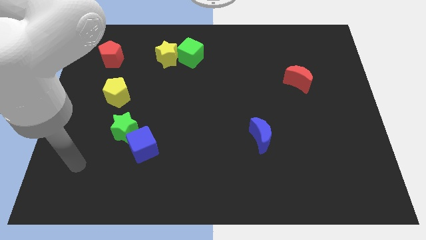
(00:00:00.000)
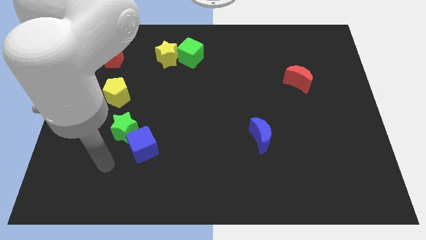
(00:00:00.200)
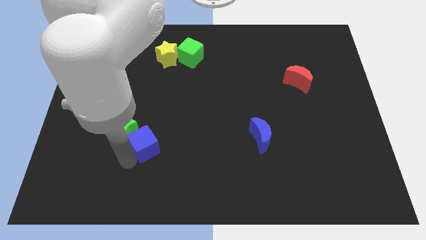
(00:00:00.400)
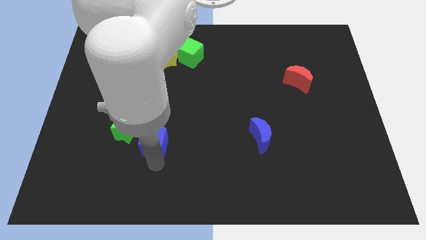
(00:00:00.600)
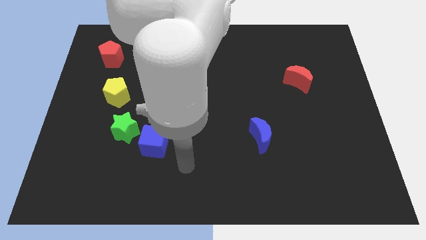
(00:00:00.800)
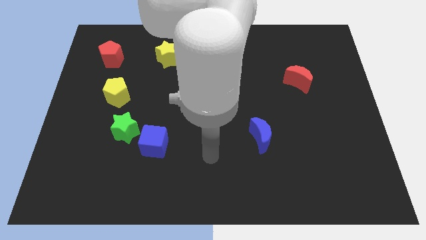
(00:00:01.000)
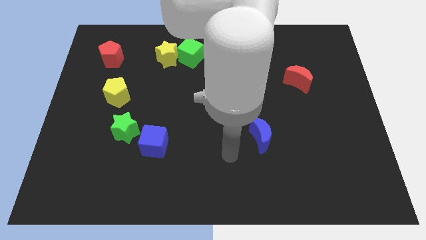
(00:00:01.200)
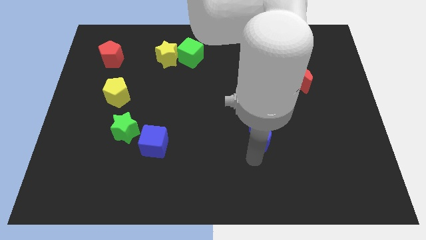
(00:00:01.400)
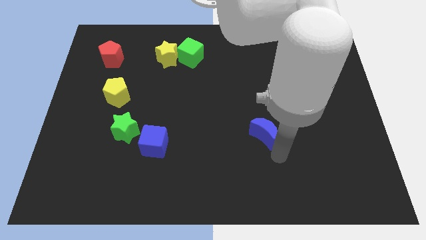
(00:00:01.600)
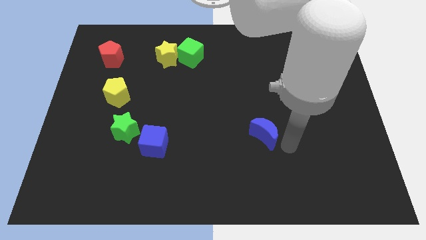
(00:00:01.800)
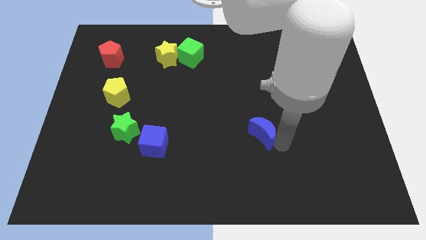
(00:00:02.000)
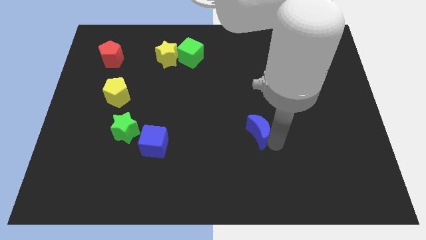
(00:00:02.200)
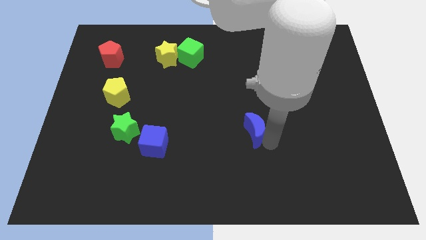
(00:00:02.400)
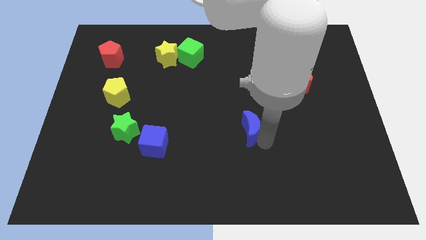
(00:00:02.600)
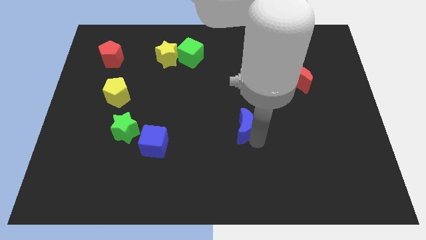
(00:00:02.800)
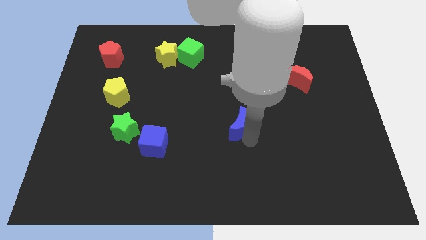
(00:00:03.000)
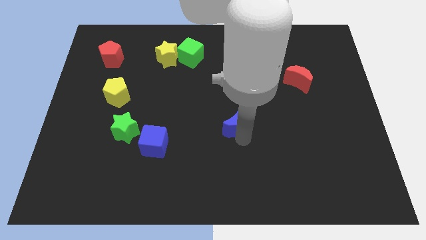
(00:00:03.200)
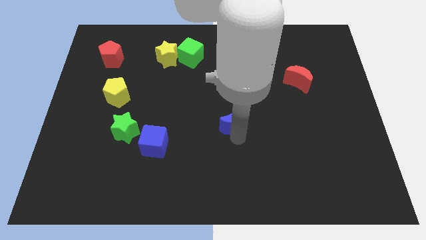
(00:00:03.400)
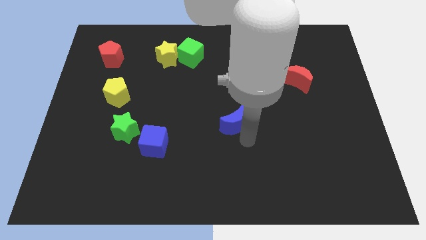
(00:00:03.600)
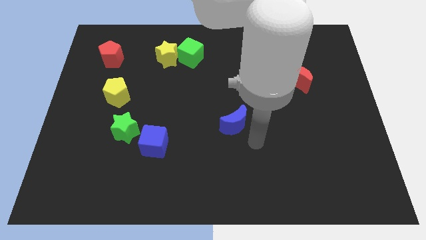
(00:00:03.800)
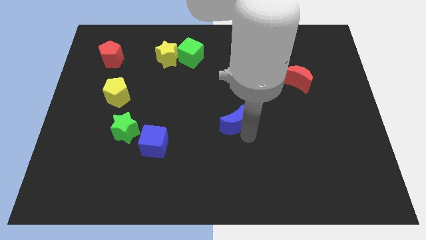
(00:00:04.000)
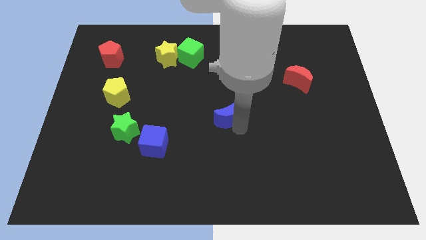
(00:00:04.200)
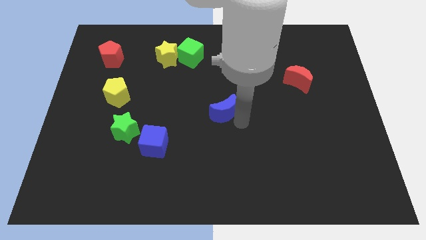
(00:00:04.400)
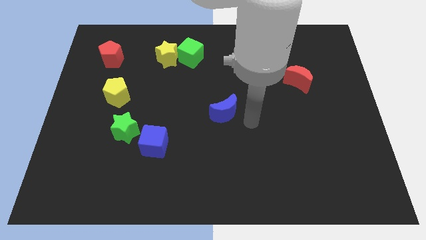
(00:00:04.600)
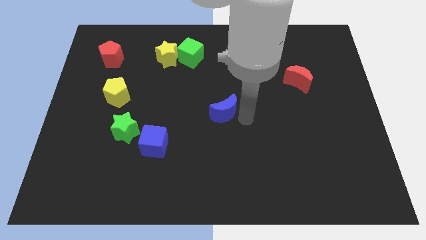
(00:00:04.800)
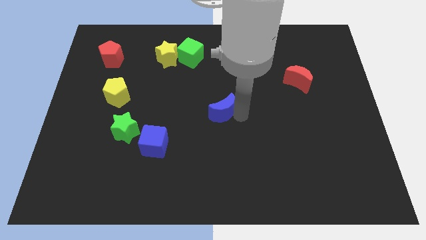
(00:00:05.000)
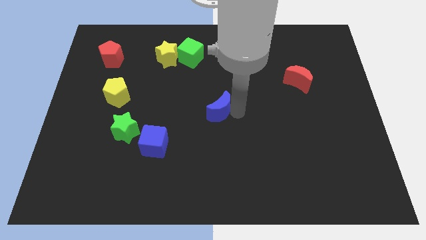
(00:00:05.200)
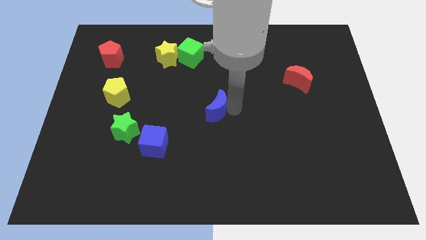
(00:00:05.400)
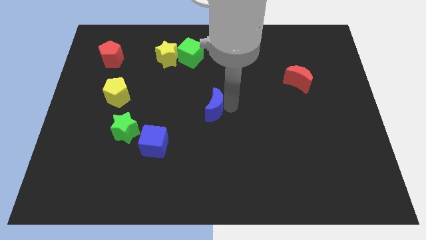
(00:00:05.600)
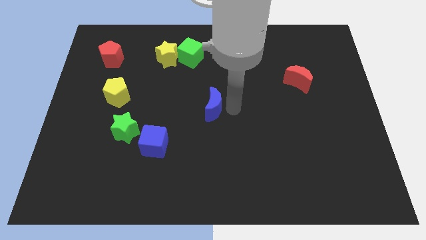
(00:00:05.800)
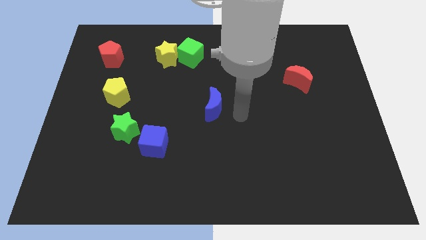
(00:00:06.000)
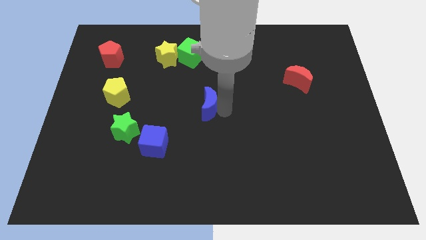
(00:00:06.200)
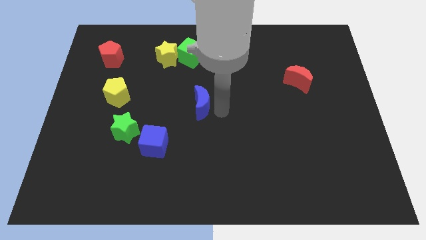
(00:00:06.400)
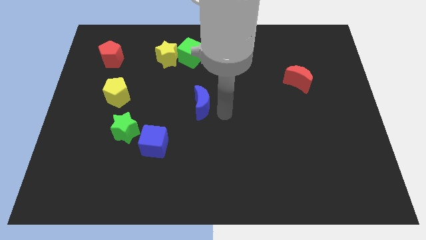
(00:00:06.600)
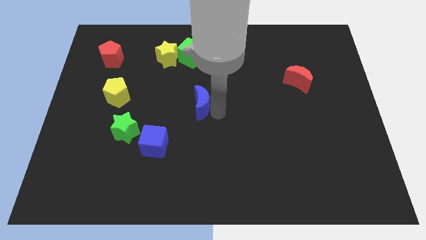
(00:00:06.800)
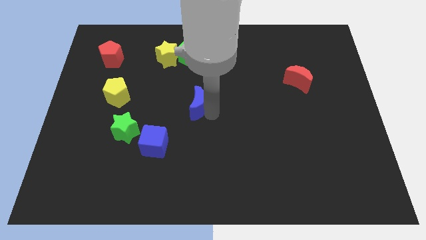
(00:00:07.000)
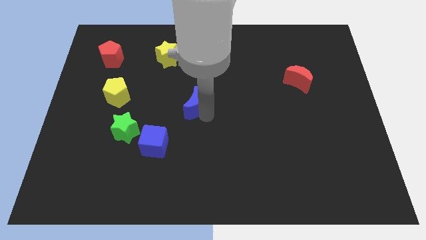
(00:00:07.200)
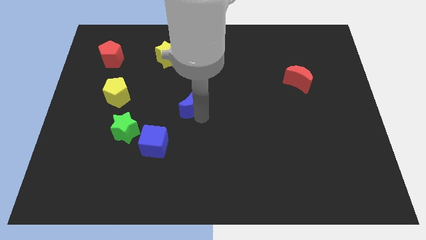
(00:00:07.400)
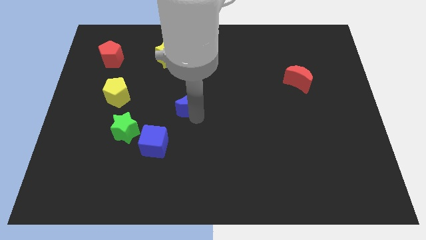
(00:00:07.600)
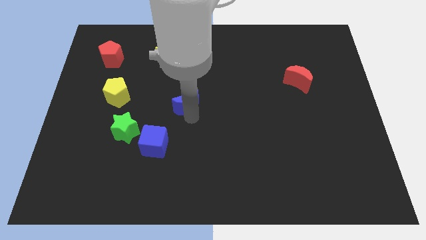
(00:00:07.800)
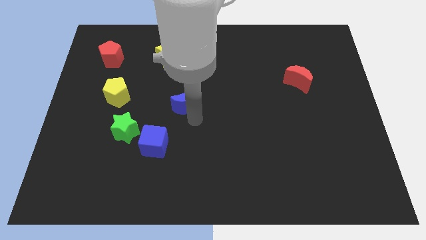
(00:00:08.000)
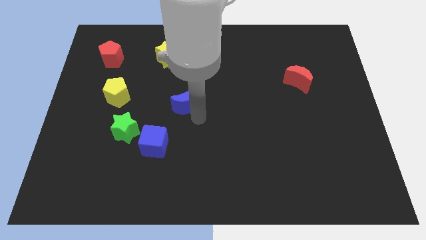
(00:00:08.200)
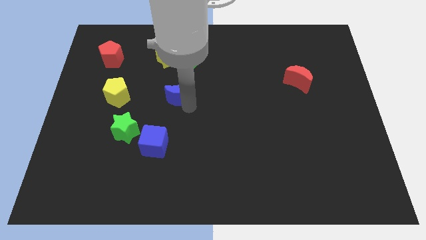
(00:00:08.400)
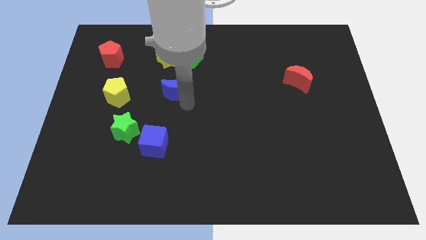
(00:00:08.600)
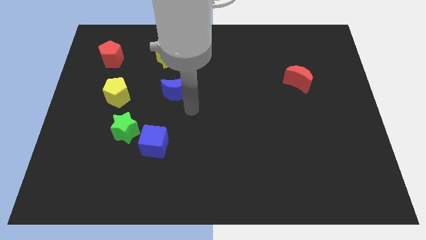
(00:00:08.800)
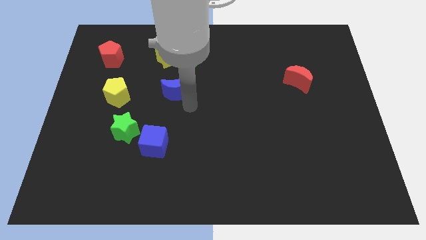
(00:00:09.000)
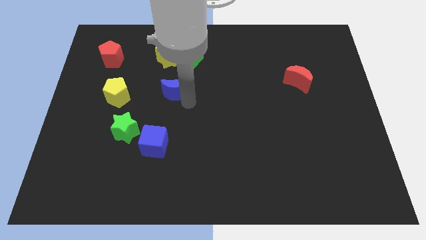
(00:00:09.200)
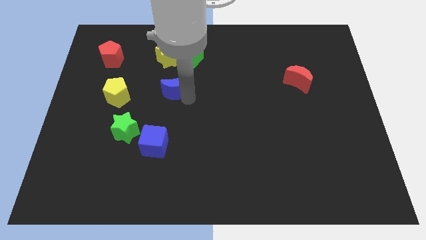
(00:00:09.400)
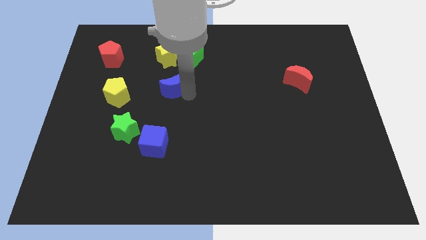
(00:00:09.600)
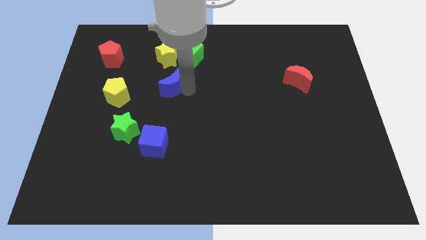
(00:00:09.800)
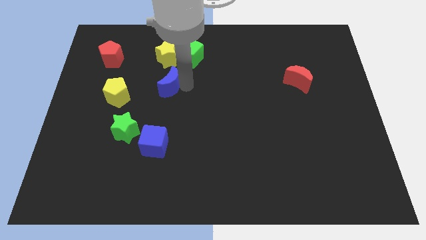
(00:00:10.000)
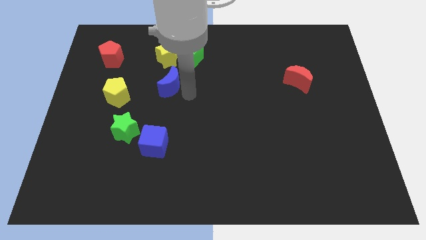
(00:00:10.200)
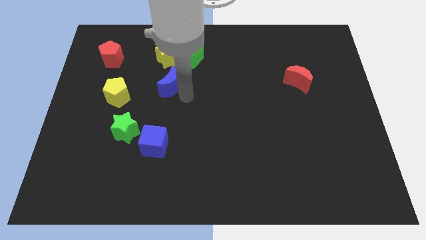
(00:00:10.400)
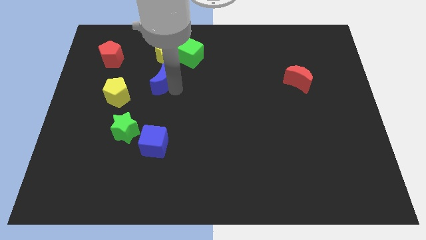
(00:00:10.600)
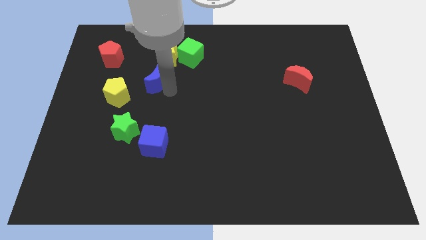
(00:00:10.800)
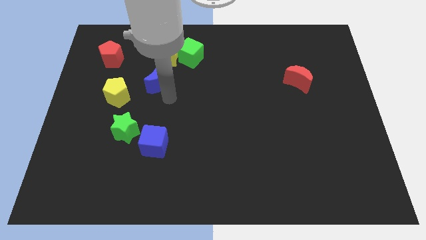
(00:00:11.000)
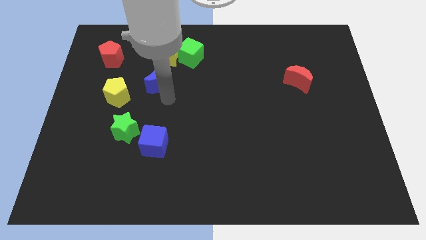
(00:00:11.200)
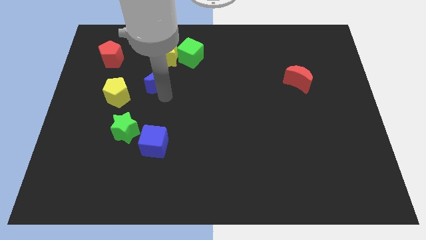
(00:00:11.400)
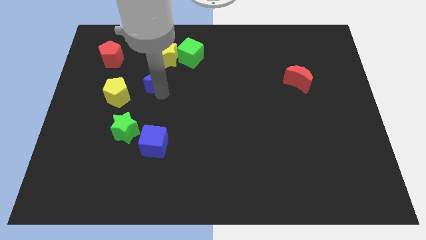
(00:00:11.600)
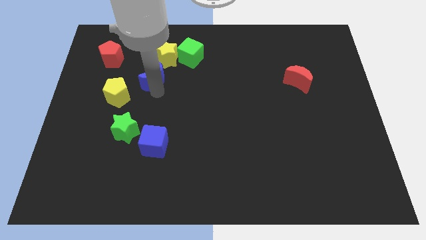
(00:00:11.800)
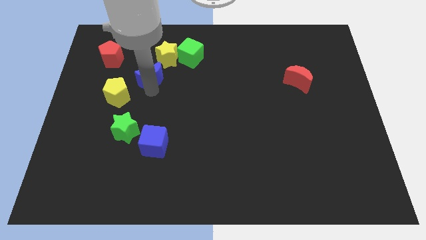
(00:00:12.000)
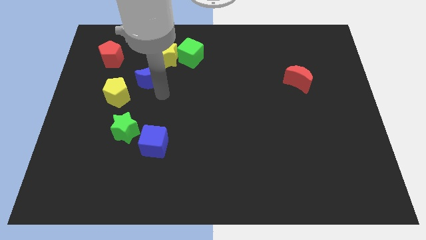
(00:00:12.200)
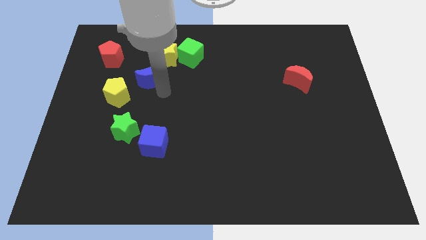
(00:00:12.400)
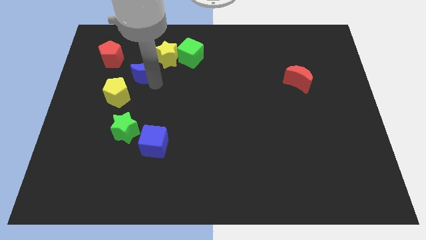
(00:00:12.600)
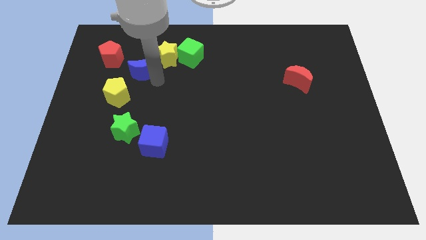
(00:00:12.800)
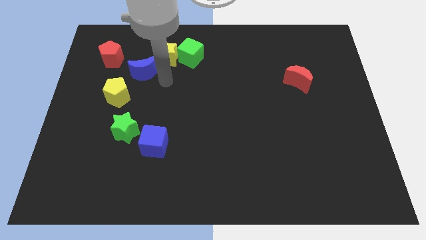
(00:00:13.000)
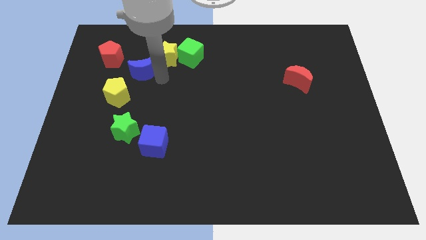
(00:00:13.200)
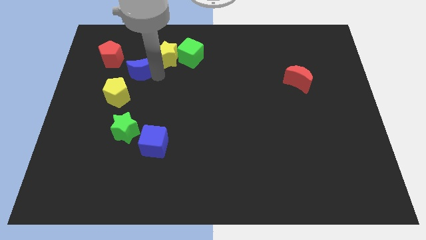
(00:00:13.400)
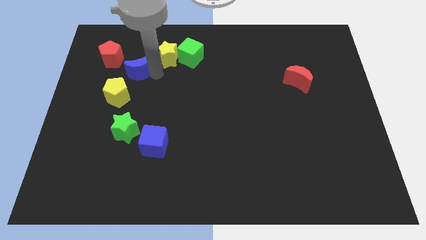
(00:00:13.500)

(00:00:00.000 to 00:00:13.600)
put the blue moon to the top side of the yellow pentagon

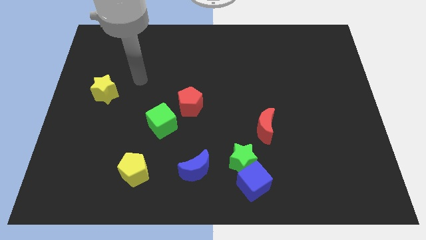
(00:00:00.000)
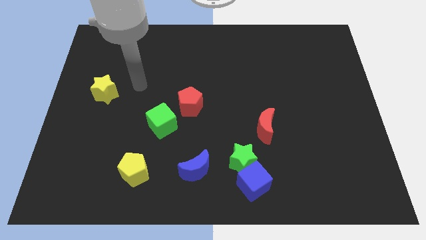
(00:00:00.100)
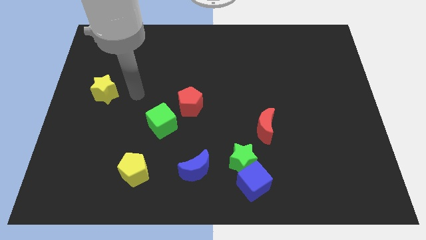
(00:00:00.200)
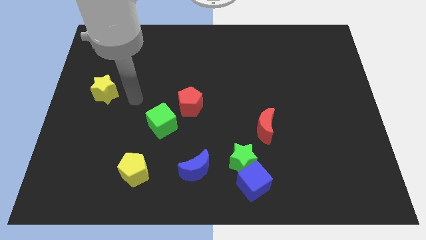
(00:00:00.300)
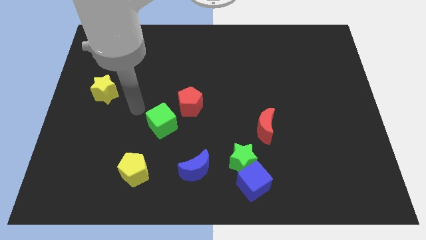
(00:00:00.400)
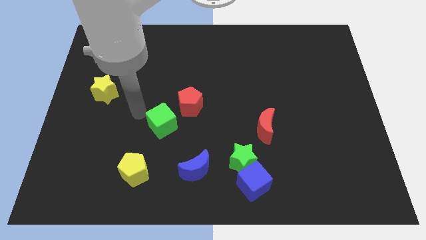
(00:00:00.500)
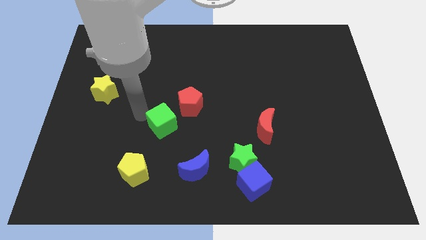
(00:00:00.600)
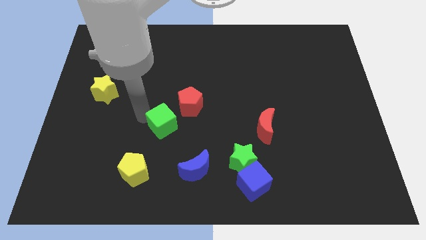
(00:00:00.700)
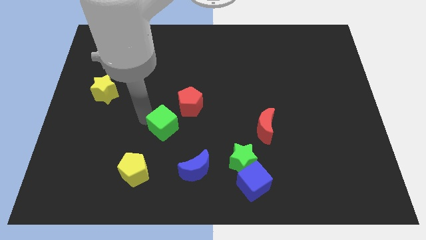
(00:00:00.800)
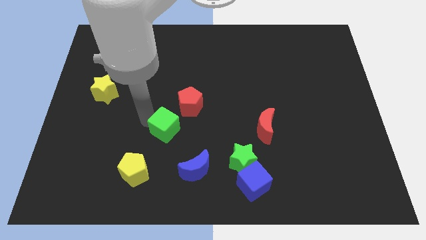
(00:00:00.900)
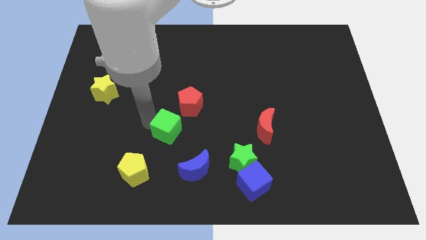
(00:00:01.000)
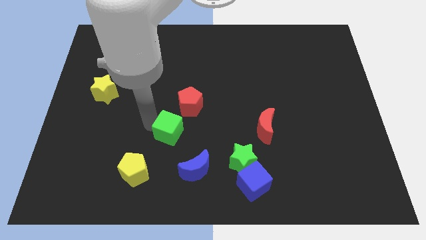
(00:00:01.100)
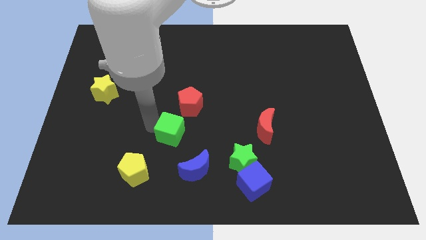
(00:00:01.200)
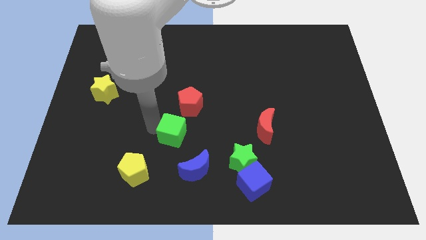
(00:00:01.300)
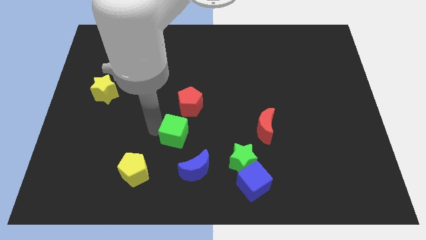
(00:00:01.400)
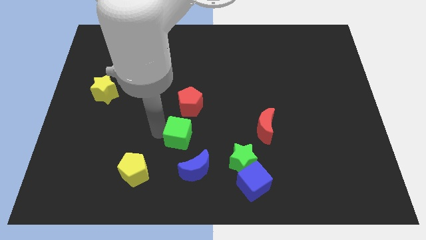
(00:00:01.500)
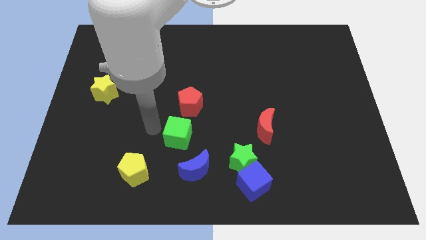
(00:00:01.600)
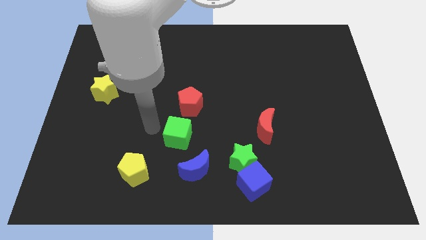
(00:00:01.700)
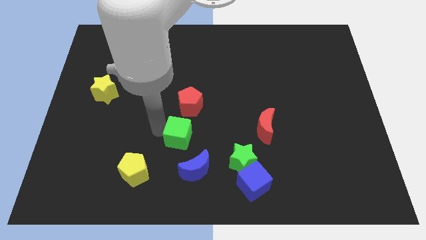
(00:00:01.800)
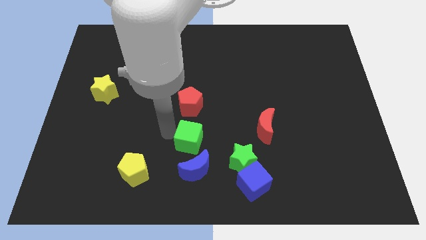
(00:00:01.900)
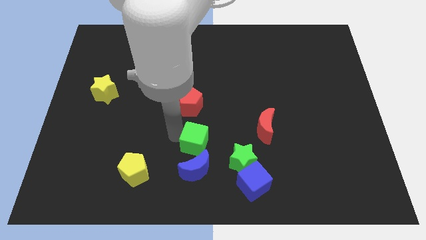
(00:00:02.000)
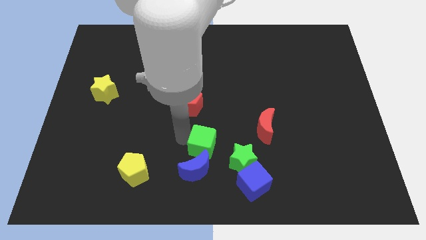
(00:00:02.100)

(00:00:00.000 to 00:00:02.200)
push the green cube diagonally up and to the right of the blue moon
